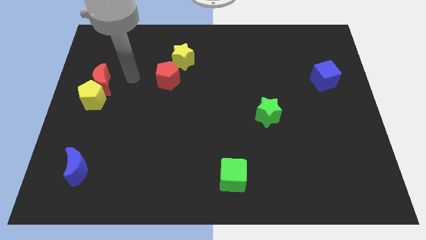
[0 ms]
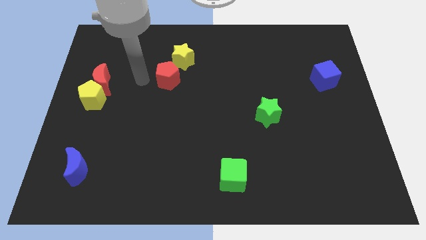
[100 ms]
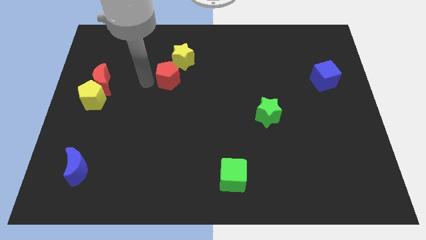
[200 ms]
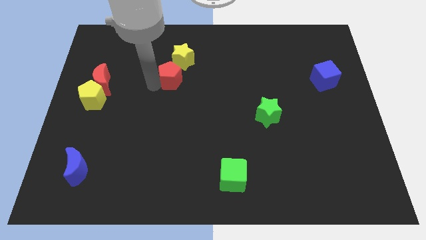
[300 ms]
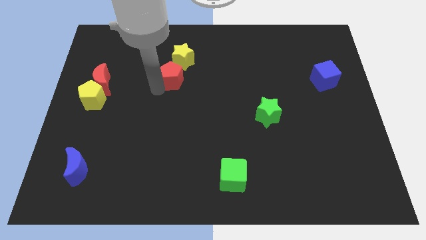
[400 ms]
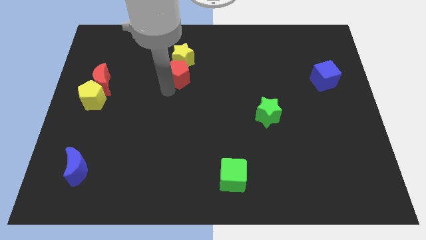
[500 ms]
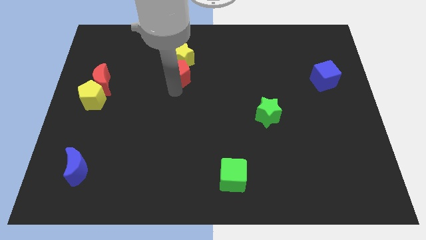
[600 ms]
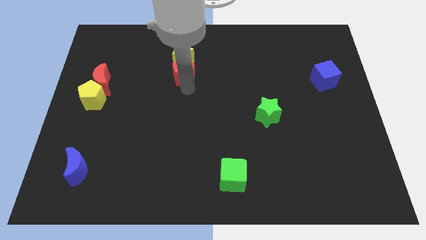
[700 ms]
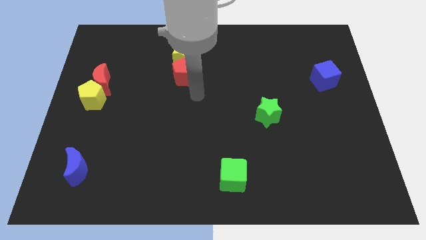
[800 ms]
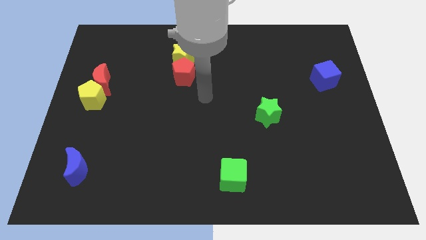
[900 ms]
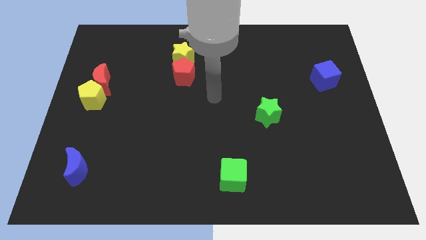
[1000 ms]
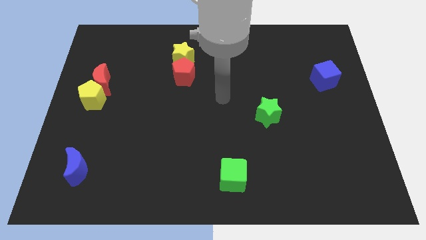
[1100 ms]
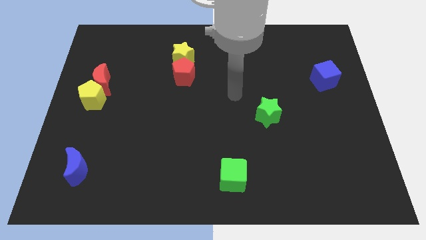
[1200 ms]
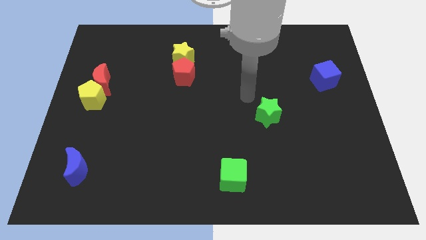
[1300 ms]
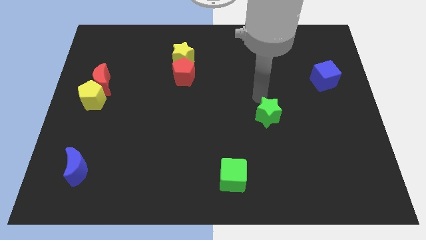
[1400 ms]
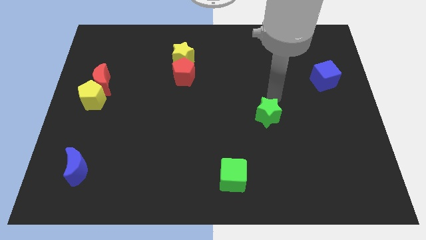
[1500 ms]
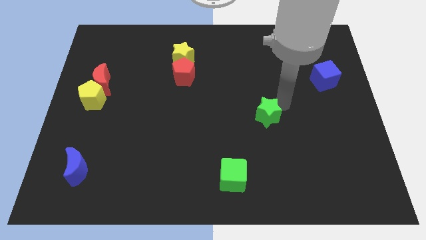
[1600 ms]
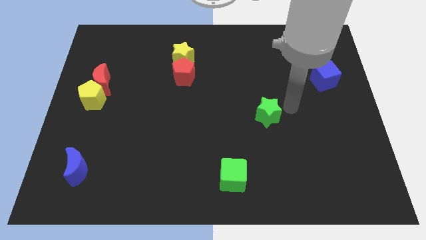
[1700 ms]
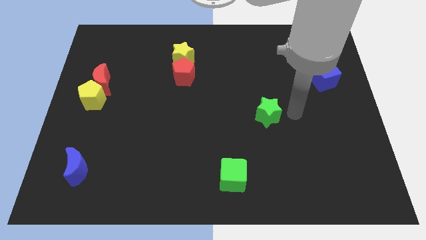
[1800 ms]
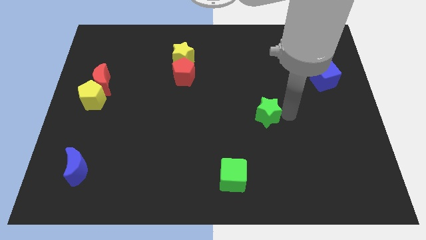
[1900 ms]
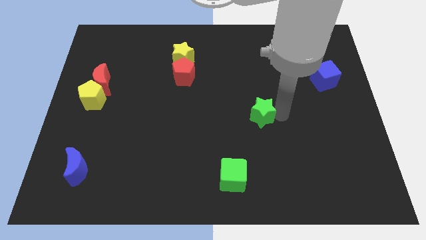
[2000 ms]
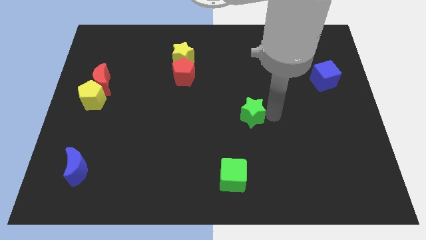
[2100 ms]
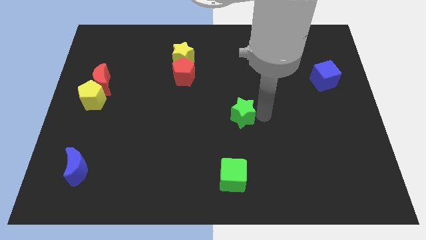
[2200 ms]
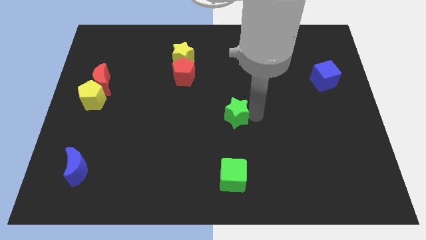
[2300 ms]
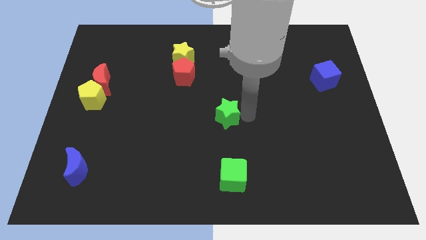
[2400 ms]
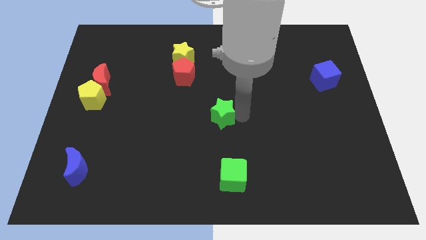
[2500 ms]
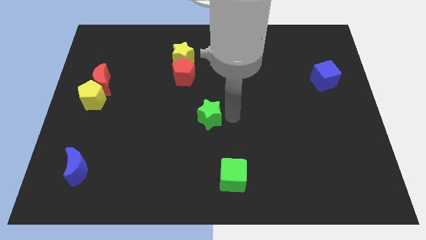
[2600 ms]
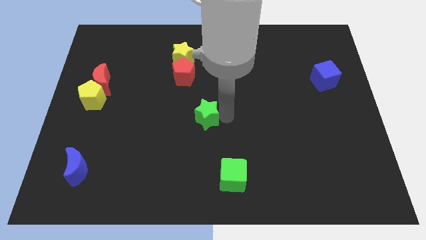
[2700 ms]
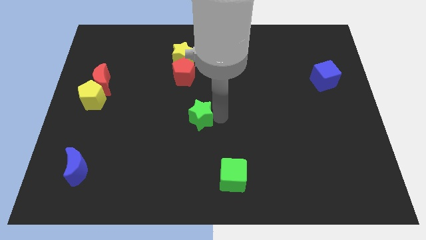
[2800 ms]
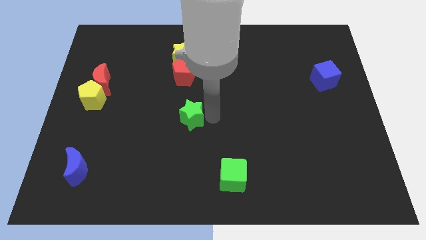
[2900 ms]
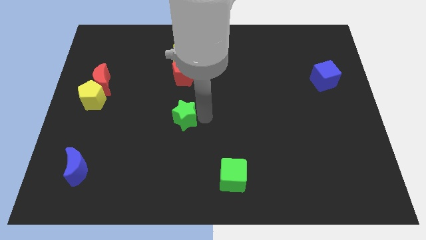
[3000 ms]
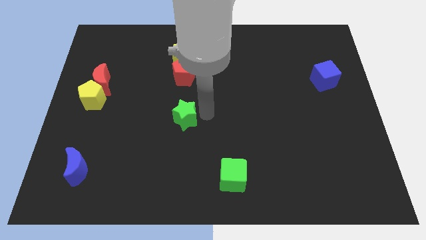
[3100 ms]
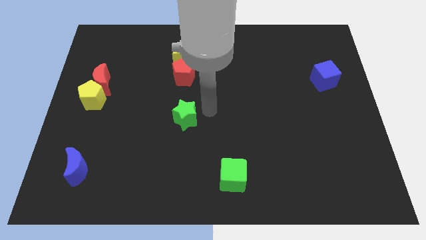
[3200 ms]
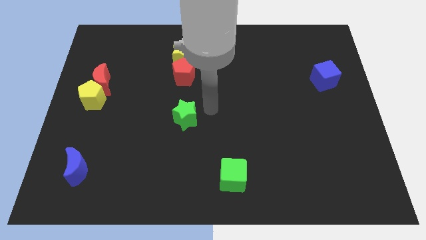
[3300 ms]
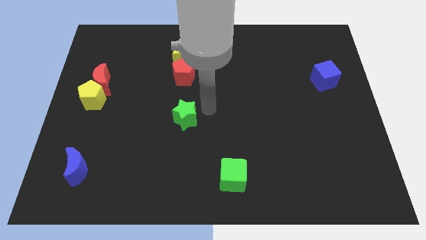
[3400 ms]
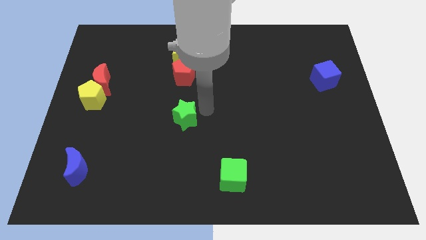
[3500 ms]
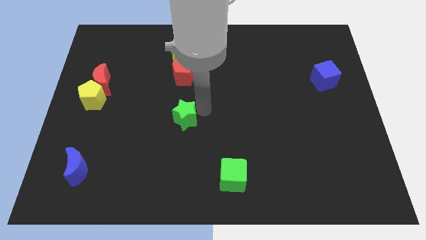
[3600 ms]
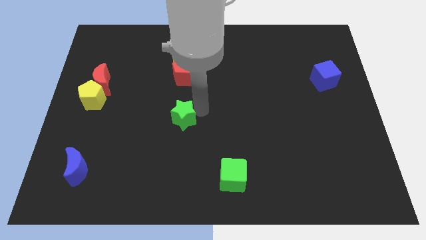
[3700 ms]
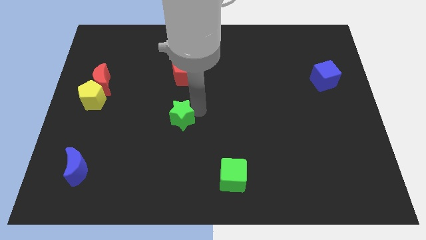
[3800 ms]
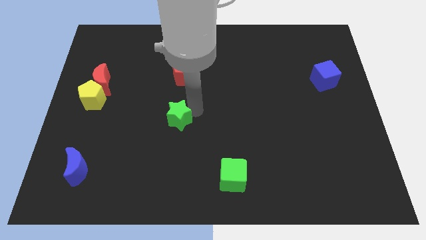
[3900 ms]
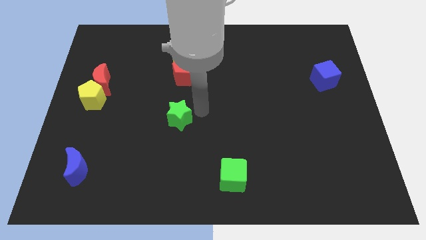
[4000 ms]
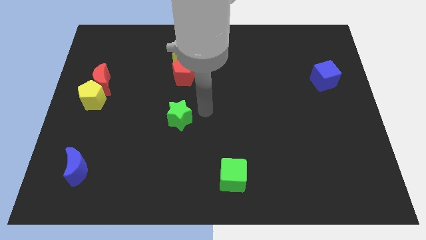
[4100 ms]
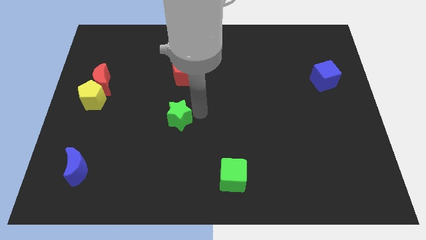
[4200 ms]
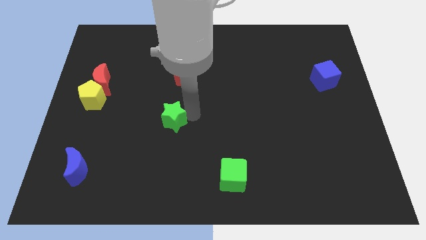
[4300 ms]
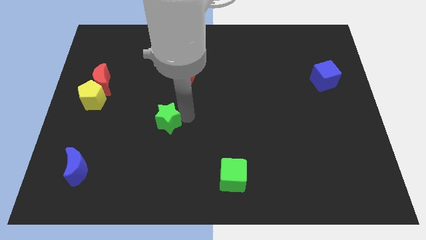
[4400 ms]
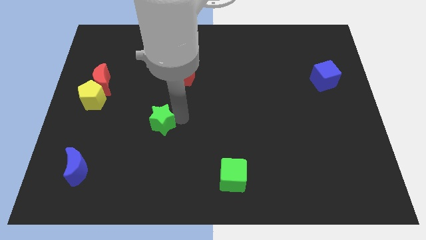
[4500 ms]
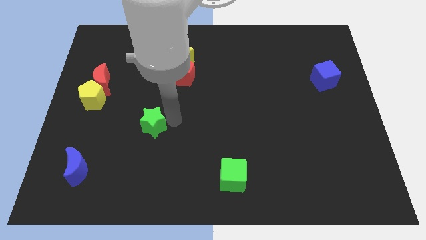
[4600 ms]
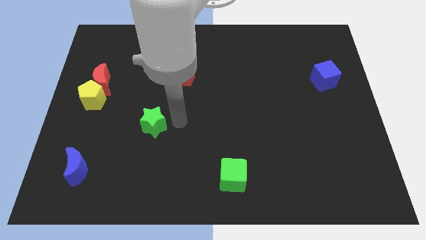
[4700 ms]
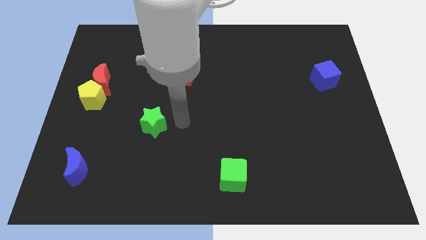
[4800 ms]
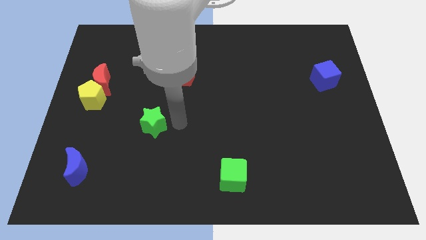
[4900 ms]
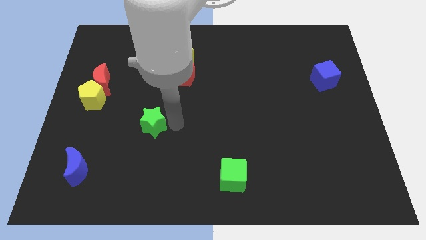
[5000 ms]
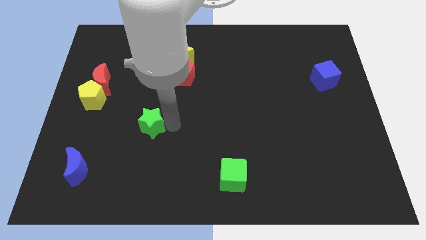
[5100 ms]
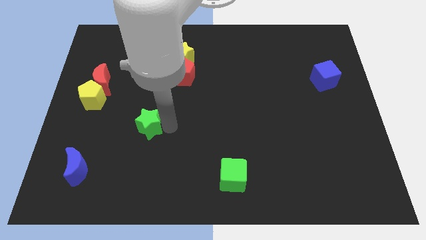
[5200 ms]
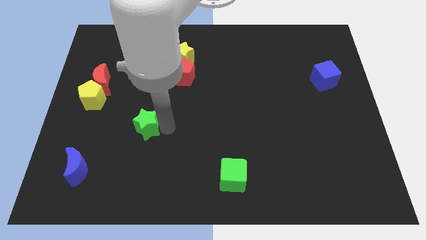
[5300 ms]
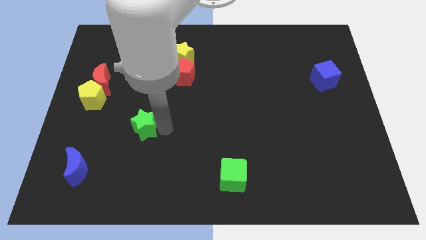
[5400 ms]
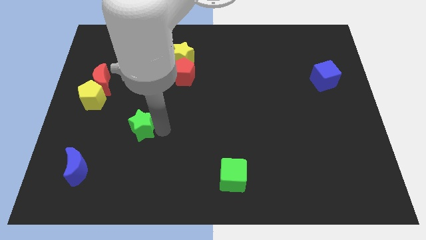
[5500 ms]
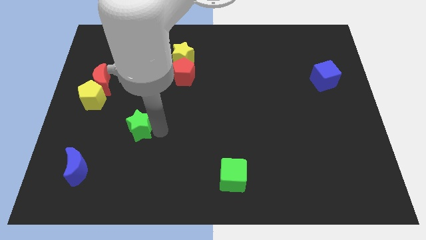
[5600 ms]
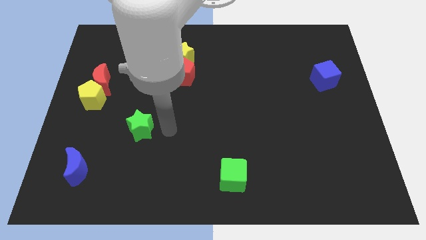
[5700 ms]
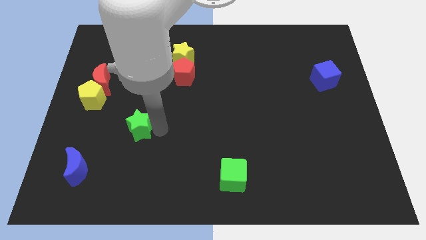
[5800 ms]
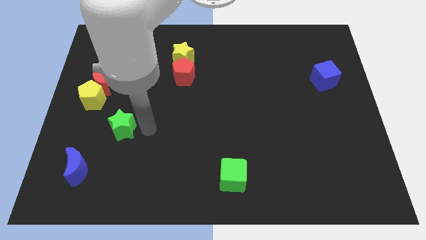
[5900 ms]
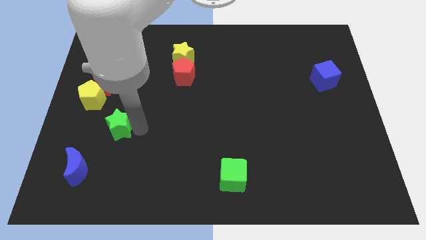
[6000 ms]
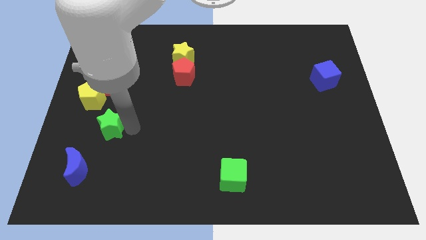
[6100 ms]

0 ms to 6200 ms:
slide the green star above the blue moon
